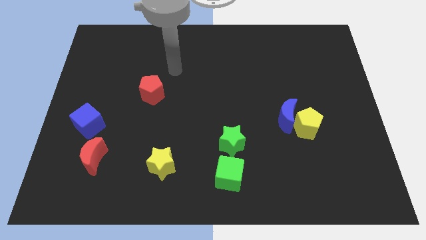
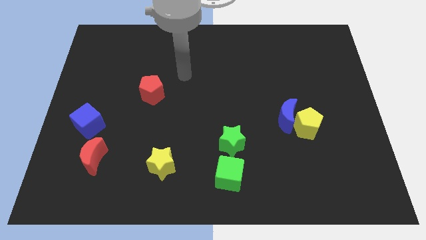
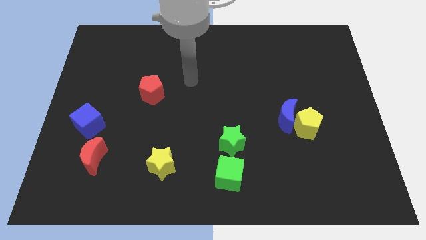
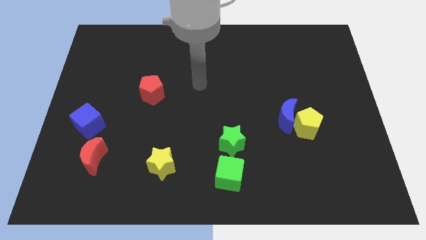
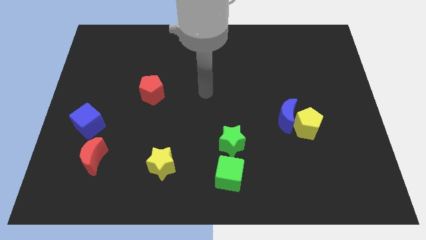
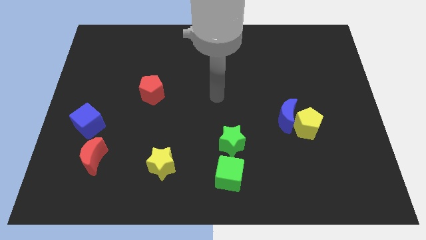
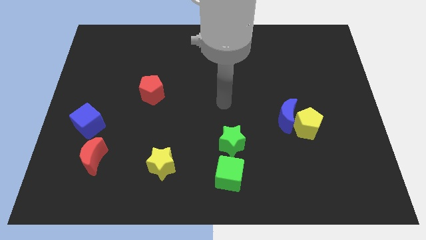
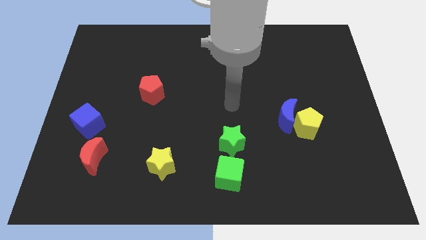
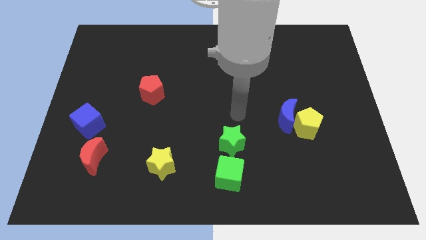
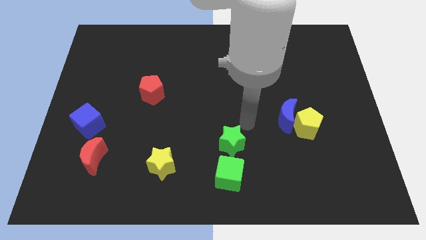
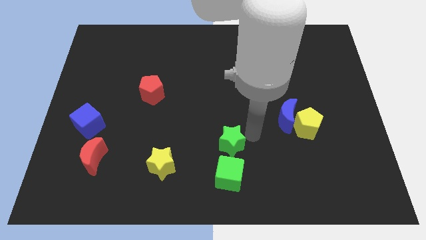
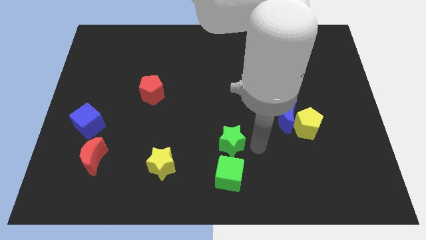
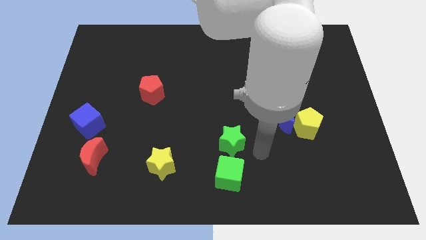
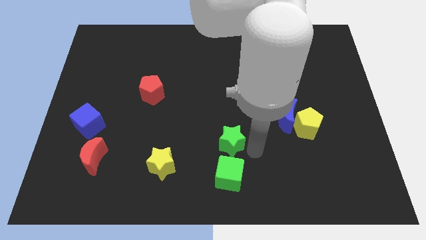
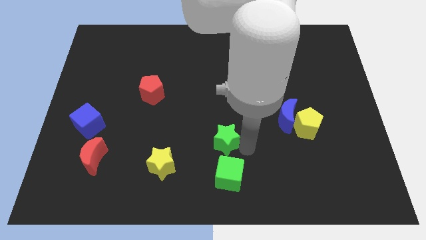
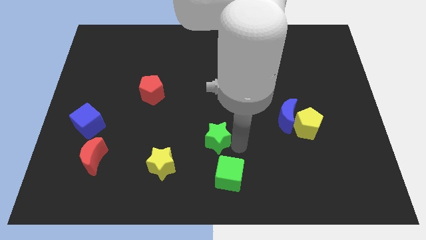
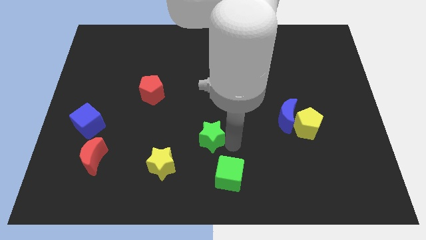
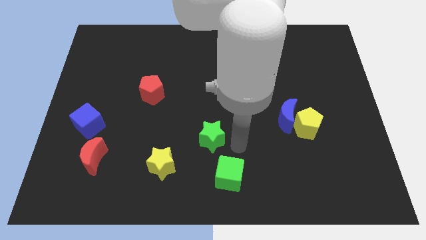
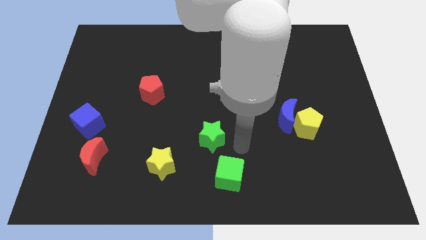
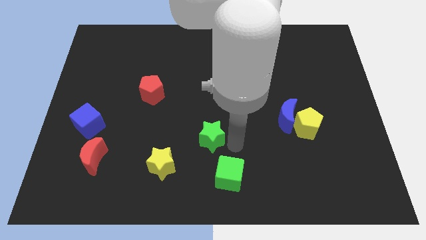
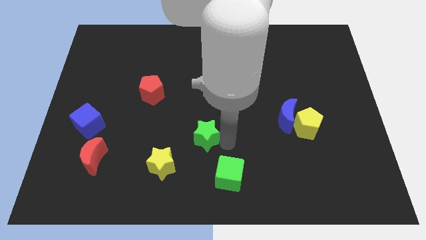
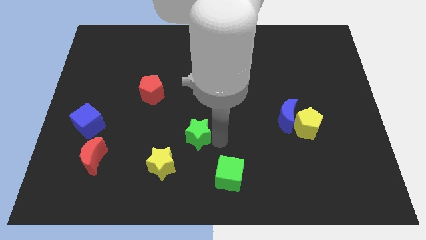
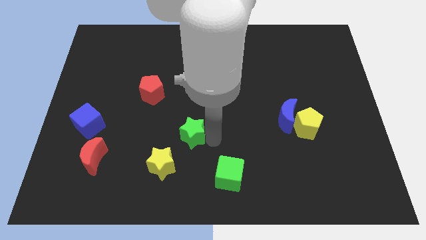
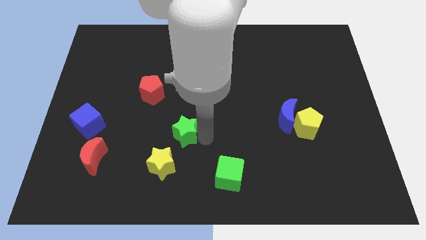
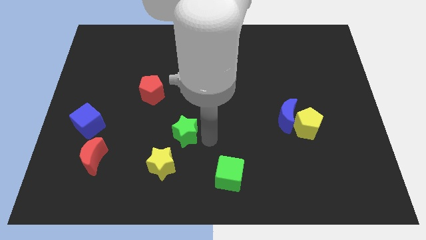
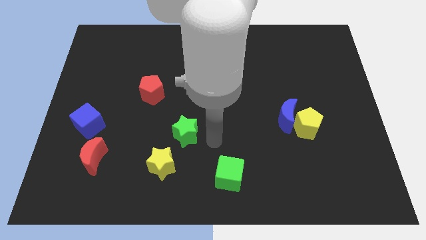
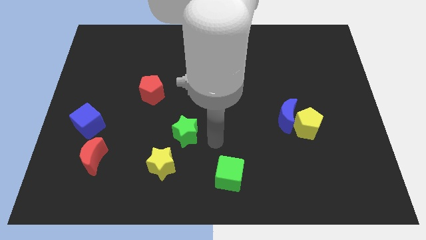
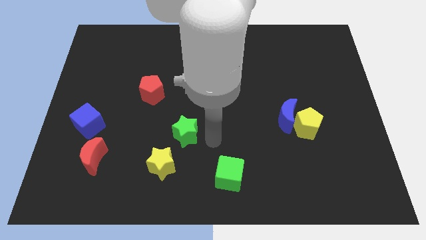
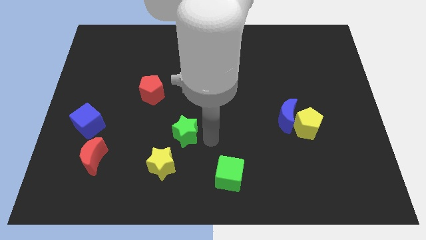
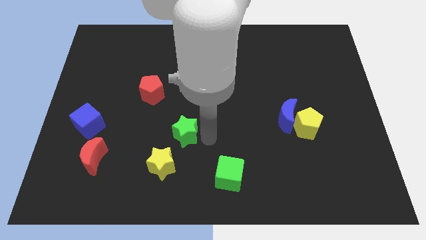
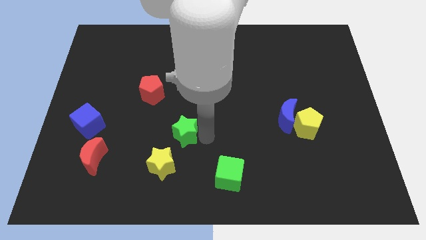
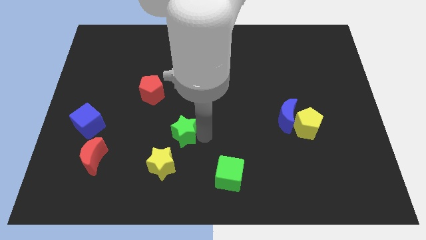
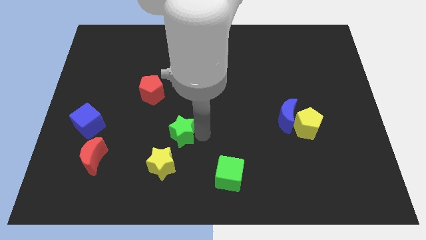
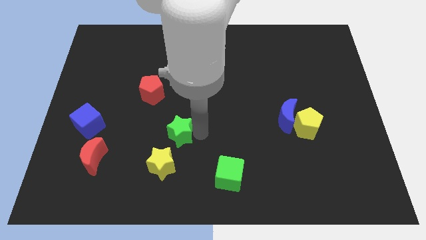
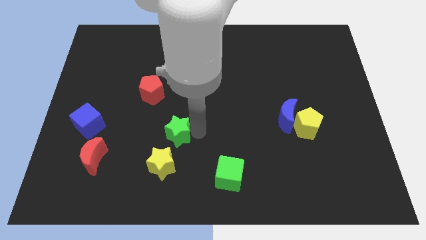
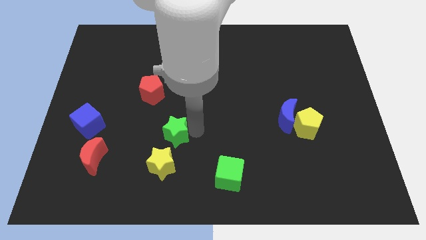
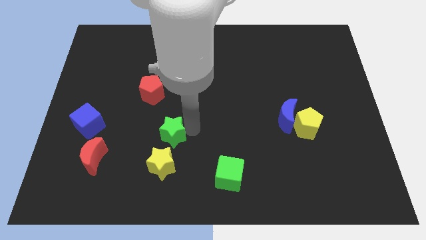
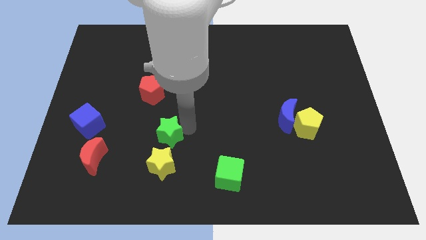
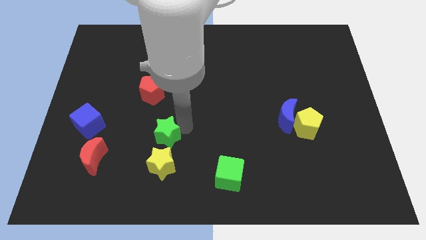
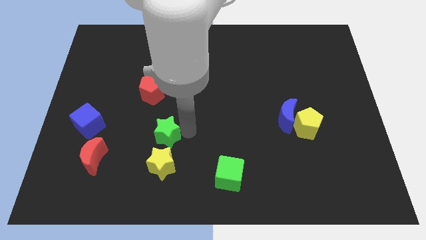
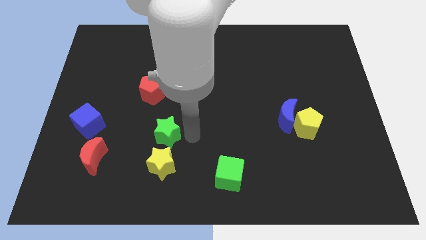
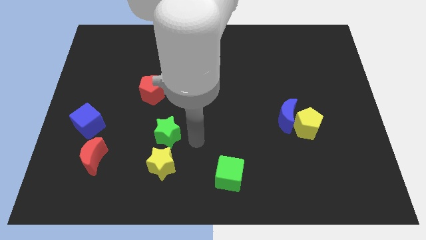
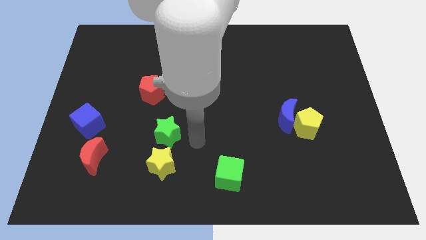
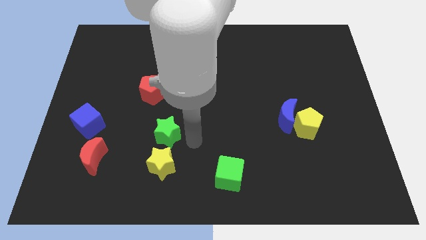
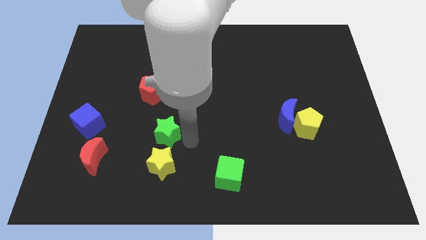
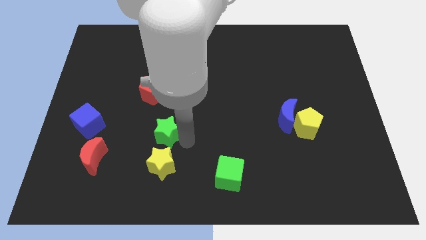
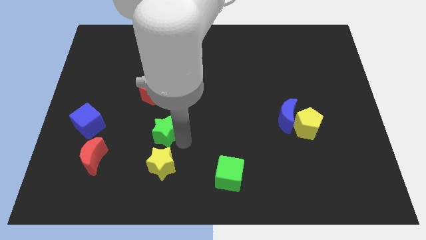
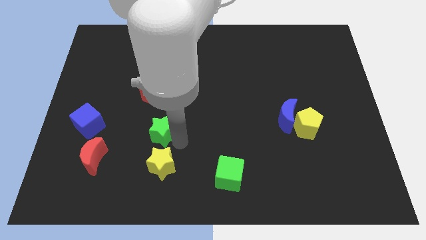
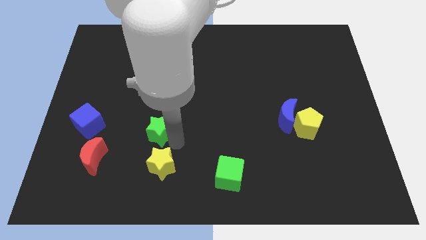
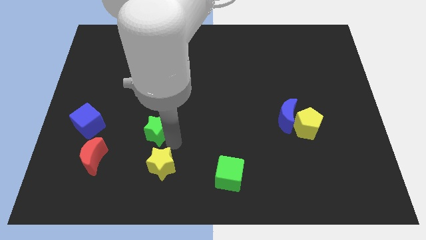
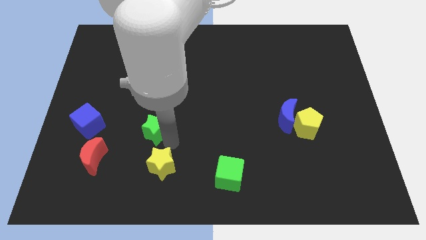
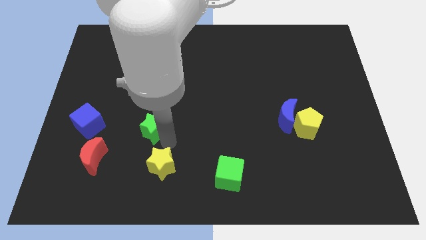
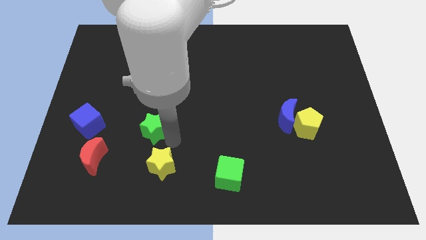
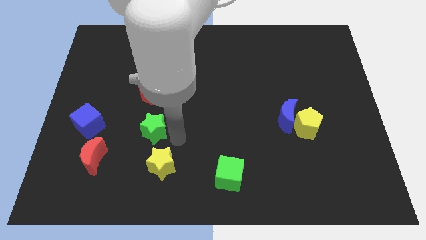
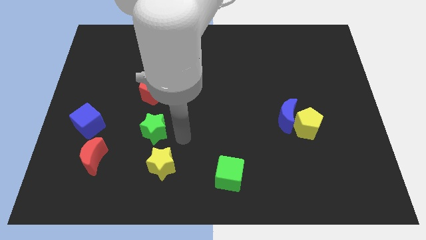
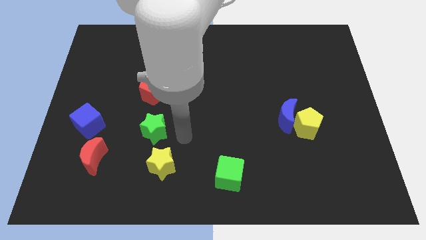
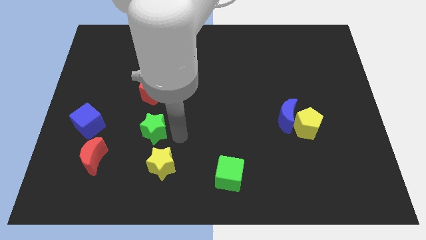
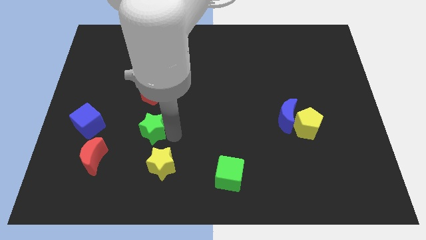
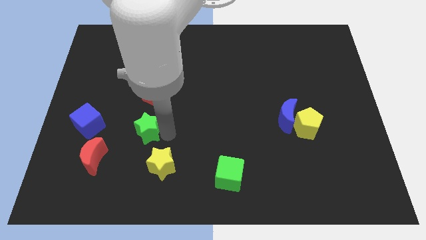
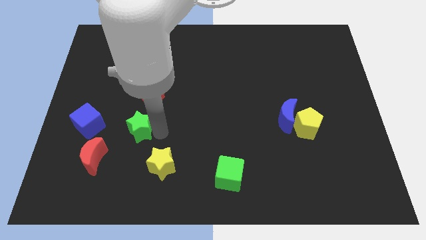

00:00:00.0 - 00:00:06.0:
slide the green star left

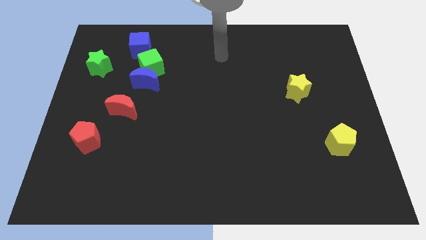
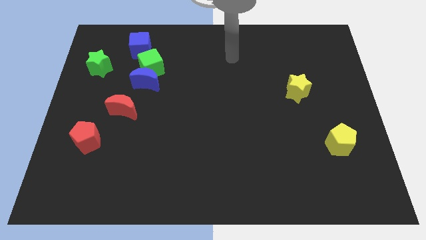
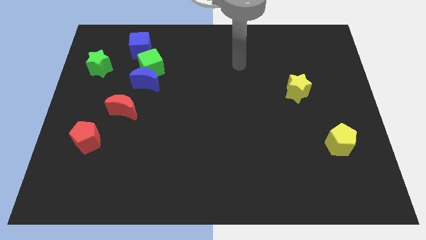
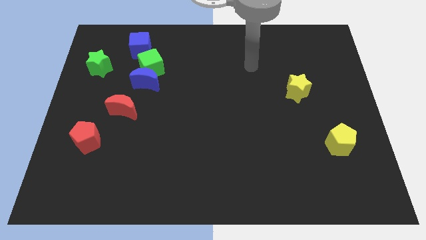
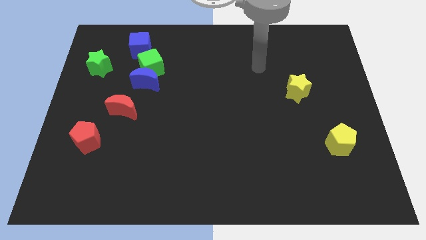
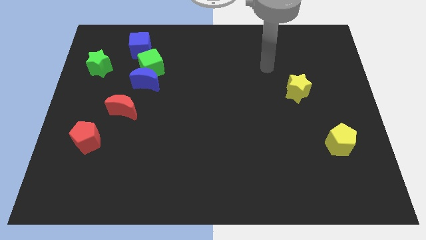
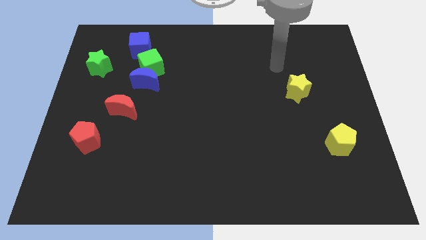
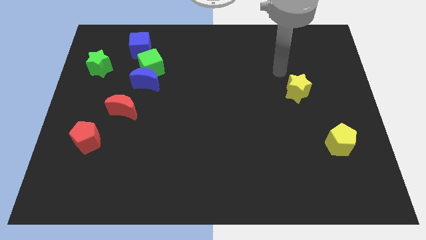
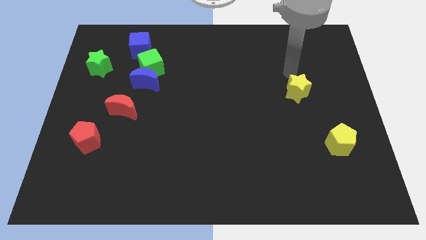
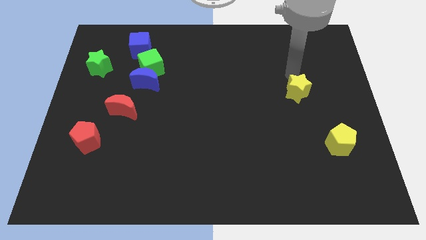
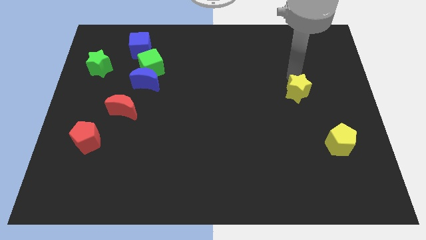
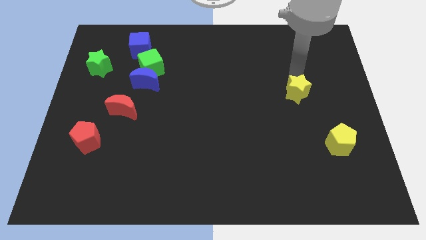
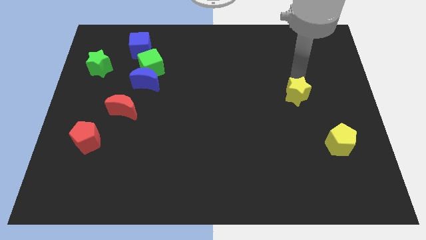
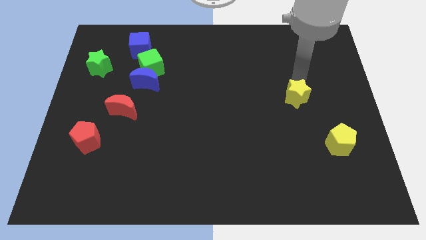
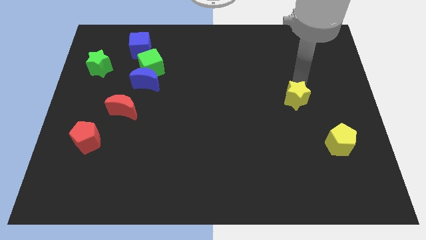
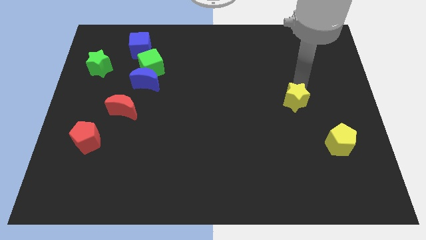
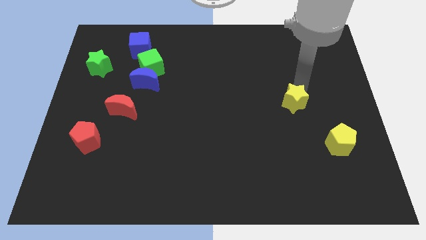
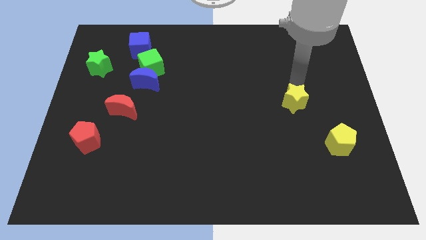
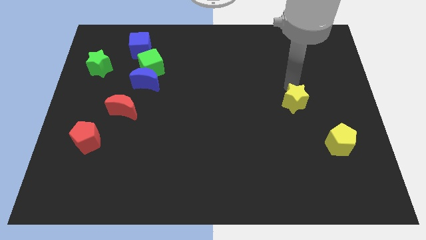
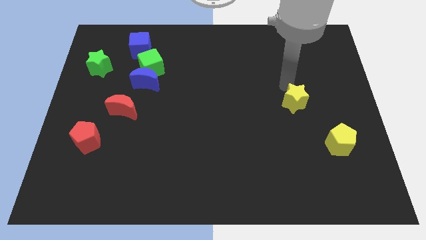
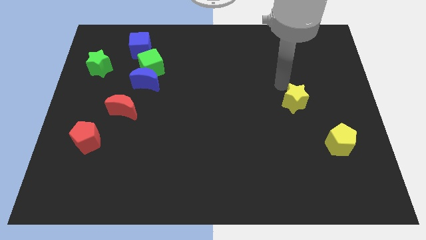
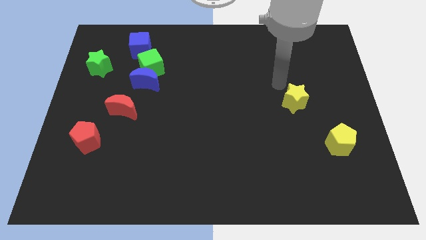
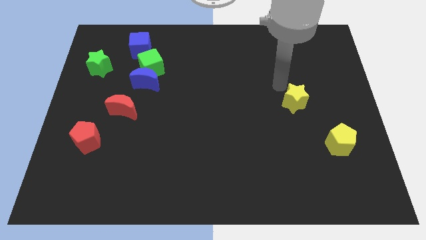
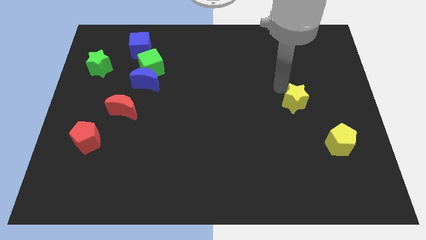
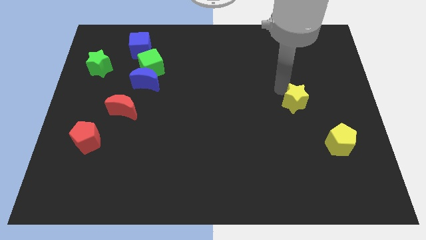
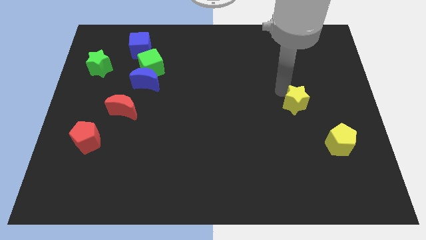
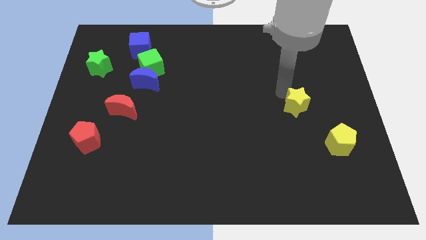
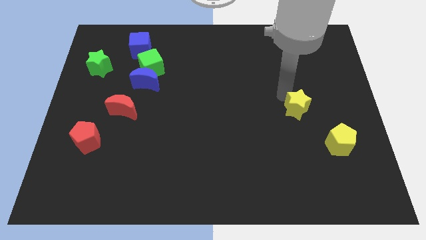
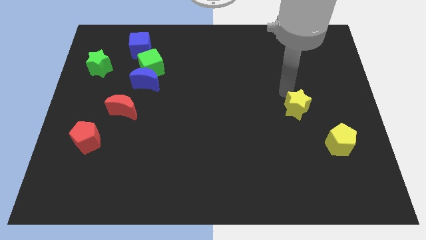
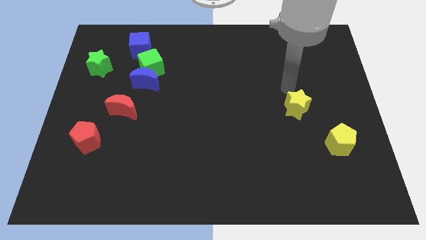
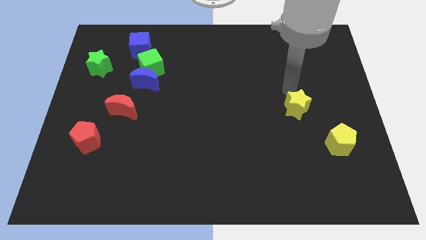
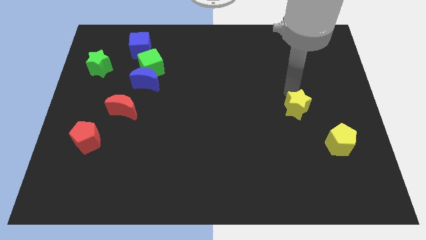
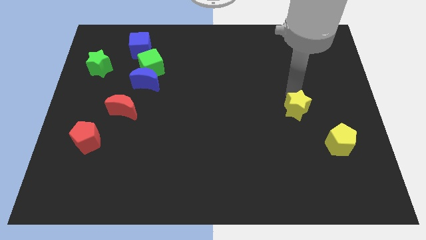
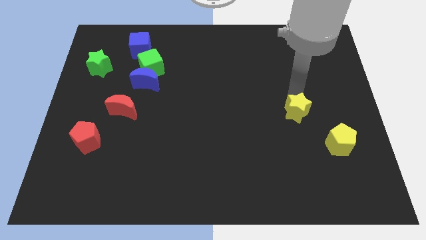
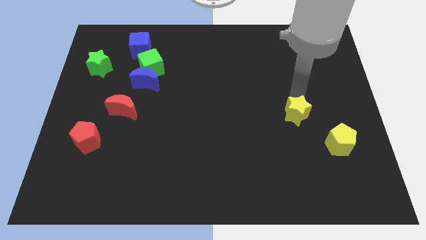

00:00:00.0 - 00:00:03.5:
slide the yellow star slightly downwards
